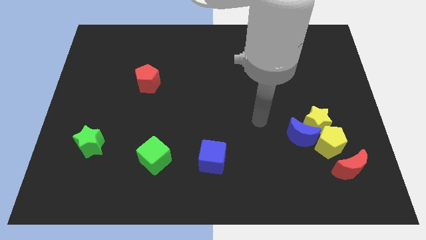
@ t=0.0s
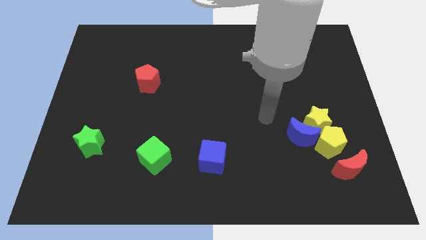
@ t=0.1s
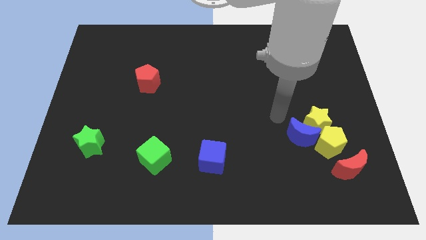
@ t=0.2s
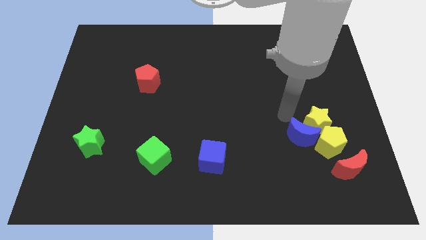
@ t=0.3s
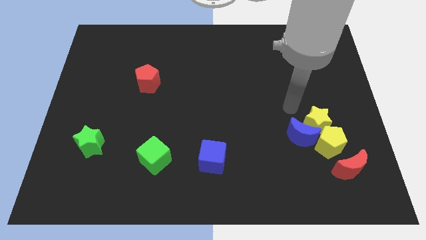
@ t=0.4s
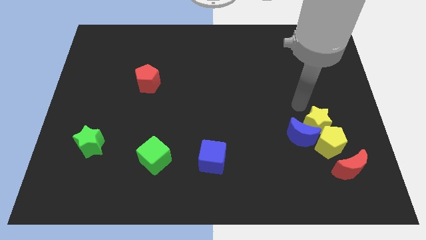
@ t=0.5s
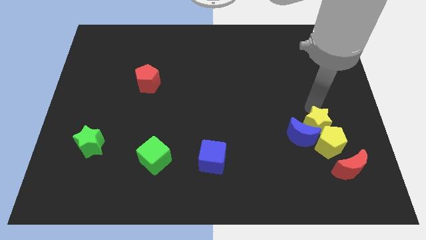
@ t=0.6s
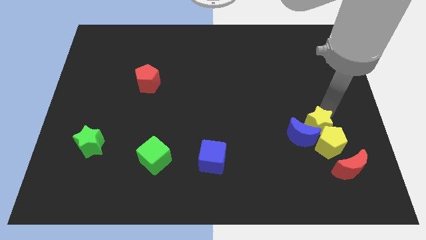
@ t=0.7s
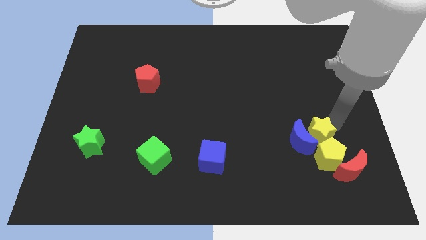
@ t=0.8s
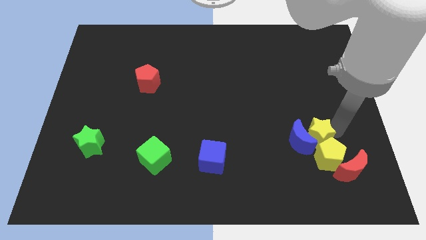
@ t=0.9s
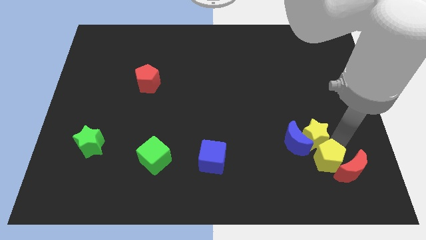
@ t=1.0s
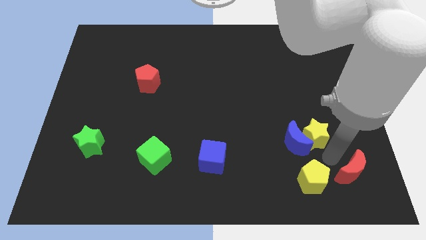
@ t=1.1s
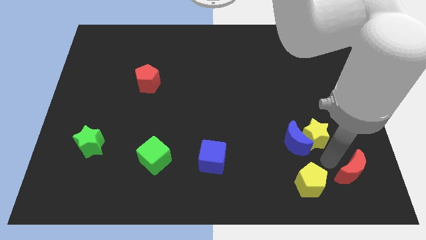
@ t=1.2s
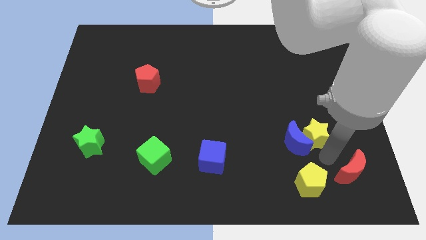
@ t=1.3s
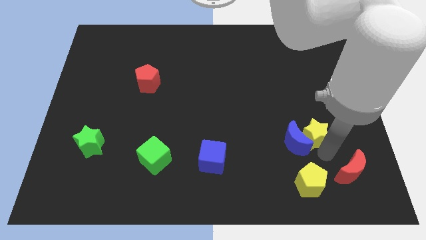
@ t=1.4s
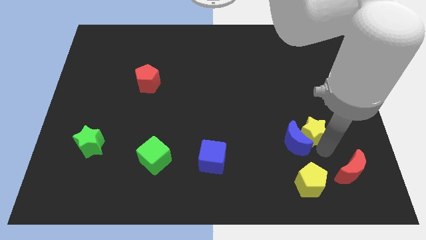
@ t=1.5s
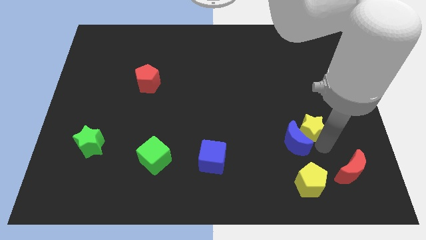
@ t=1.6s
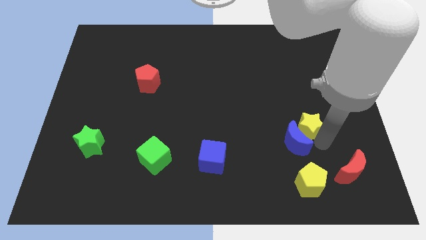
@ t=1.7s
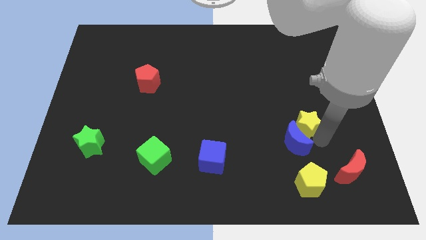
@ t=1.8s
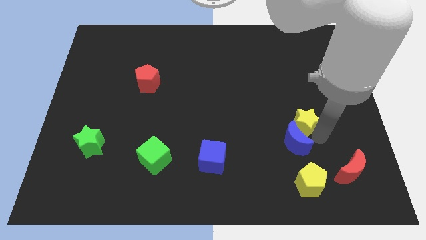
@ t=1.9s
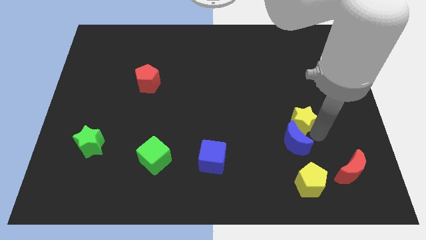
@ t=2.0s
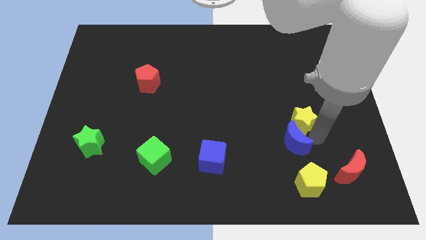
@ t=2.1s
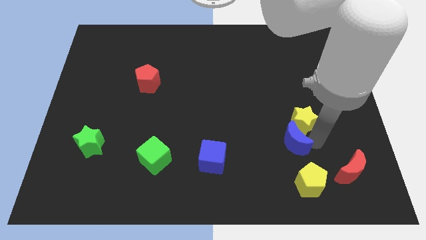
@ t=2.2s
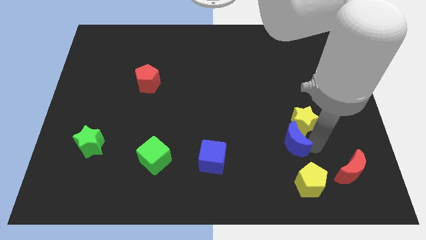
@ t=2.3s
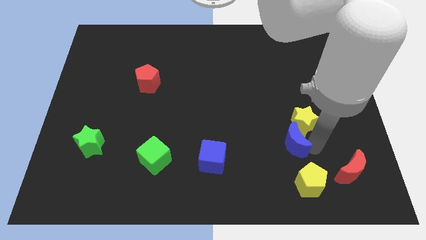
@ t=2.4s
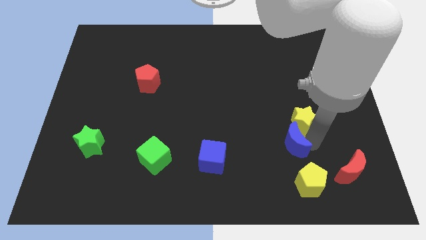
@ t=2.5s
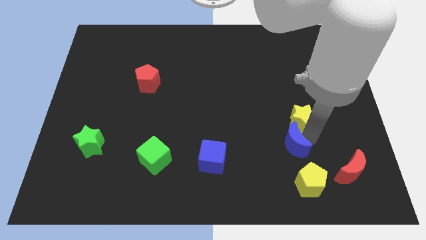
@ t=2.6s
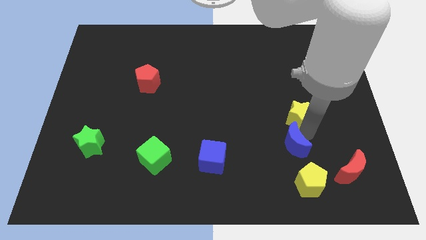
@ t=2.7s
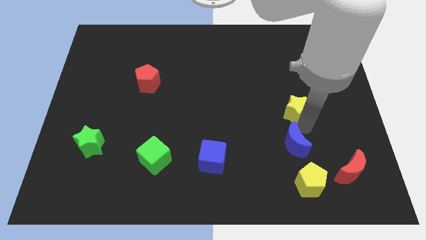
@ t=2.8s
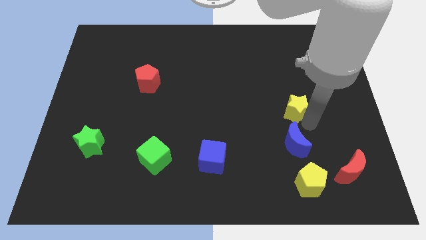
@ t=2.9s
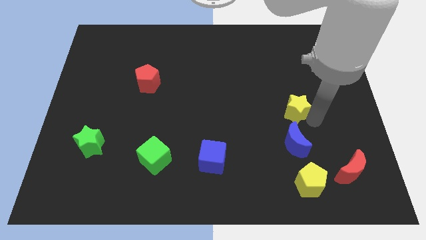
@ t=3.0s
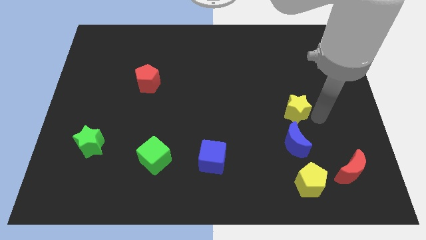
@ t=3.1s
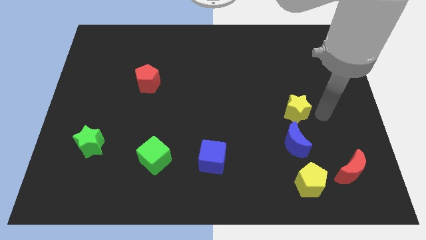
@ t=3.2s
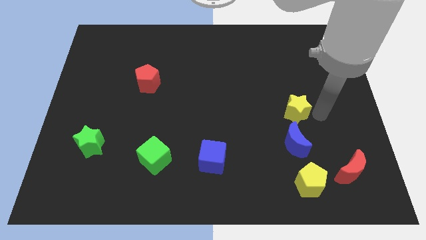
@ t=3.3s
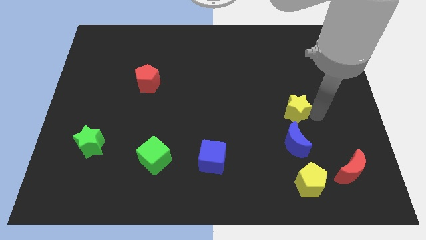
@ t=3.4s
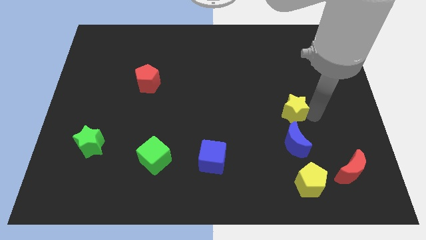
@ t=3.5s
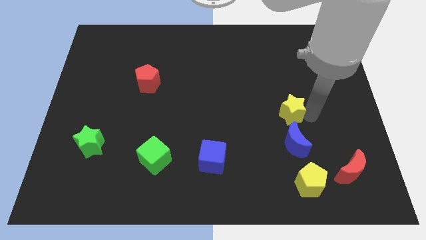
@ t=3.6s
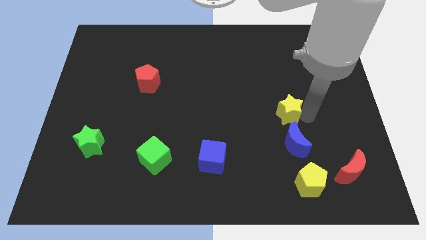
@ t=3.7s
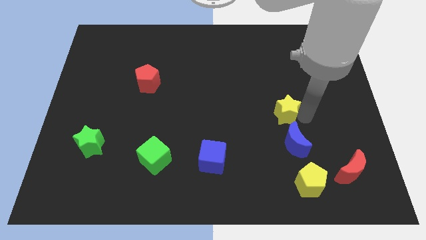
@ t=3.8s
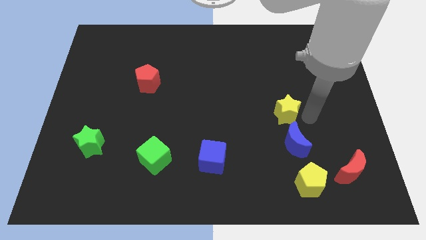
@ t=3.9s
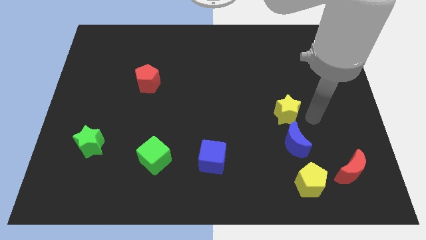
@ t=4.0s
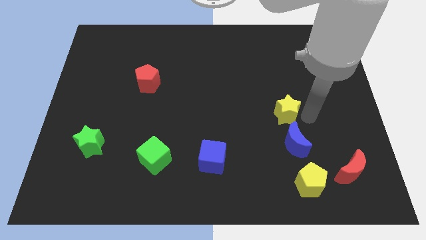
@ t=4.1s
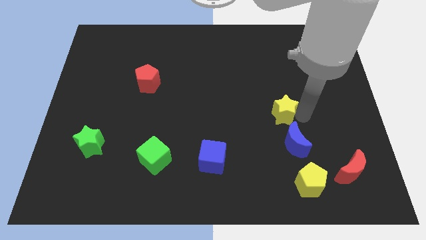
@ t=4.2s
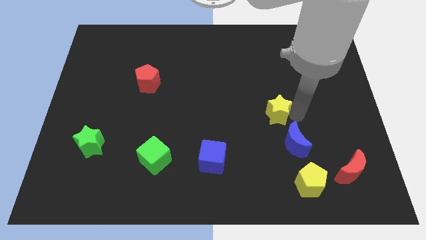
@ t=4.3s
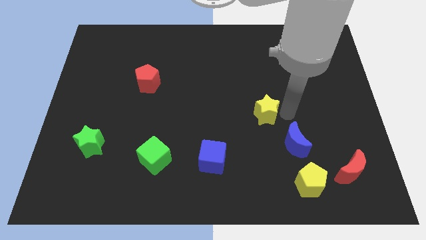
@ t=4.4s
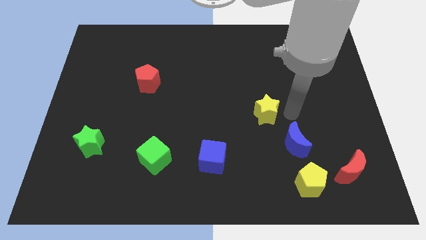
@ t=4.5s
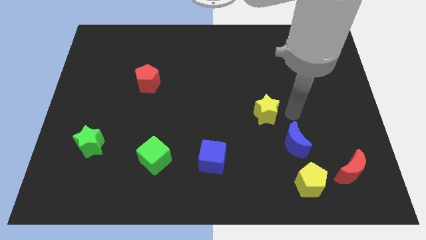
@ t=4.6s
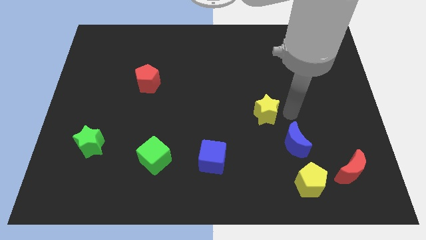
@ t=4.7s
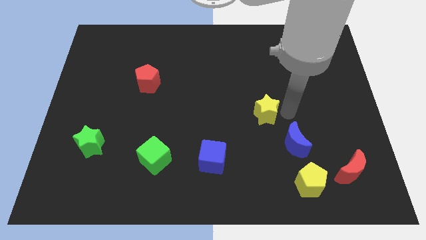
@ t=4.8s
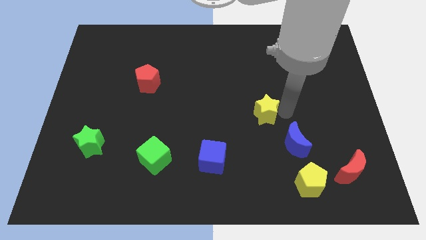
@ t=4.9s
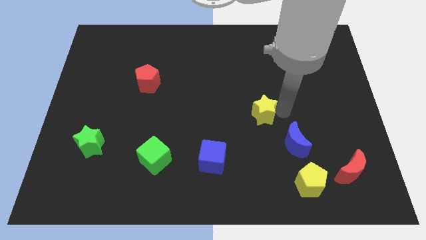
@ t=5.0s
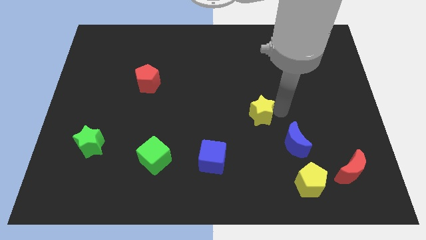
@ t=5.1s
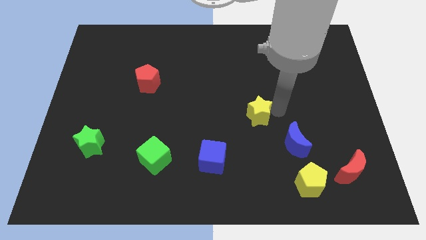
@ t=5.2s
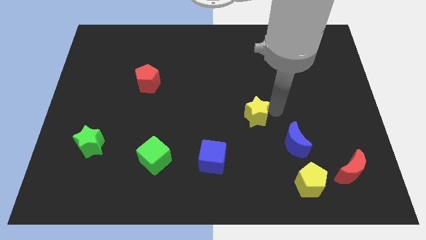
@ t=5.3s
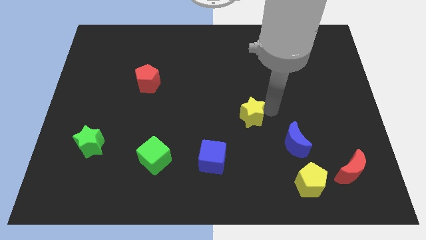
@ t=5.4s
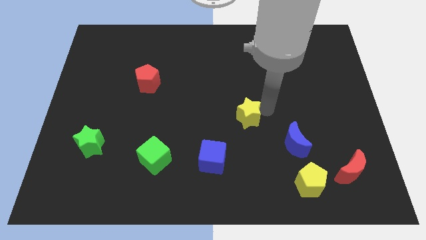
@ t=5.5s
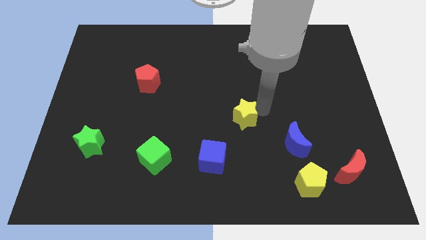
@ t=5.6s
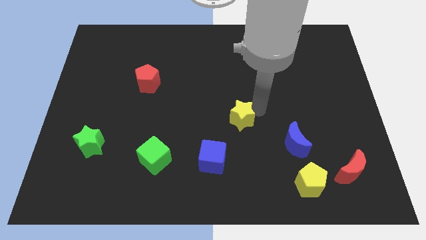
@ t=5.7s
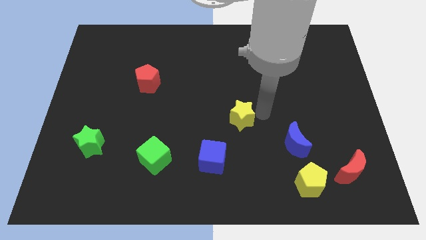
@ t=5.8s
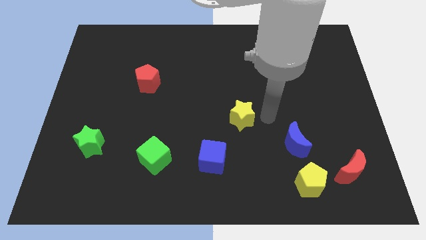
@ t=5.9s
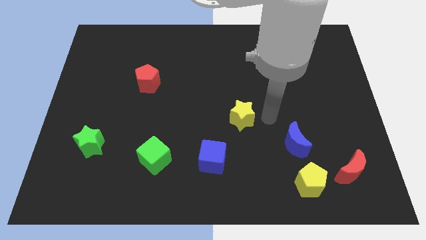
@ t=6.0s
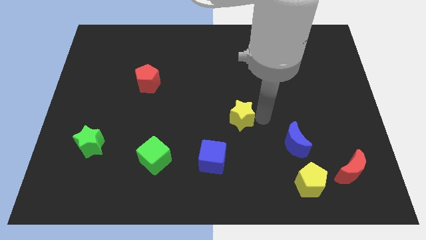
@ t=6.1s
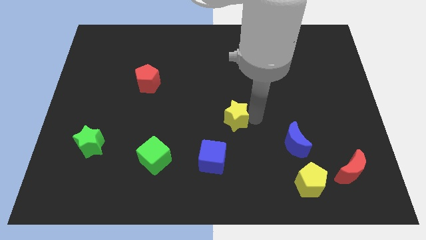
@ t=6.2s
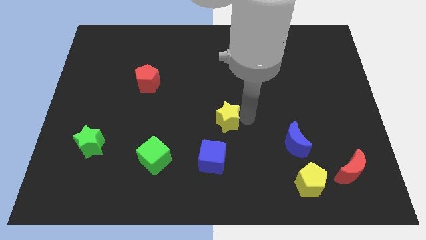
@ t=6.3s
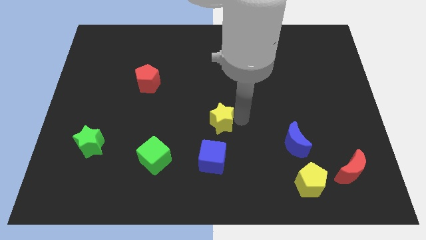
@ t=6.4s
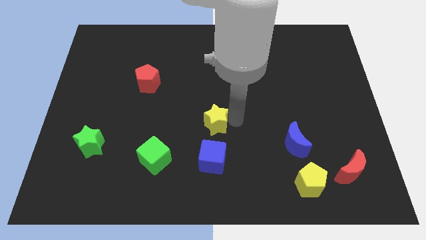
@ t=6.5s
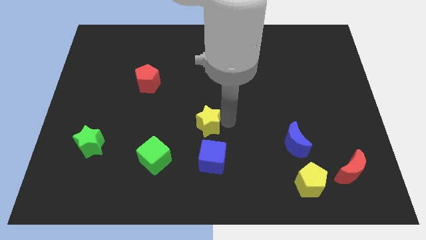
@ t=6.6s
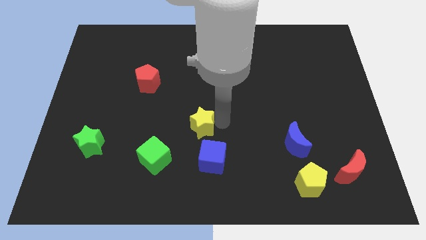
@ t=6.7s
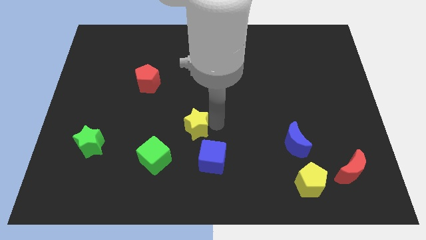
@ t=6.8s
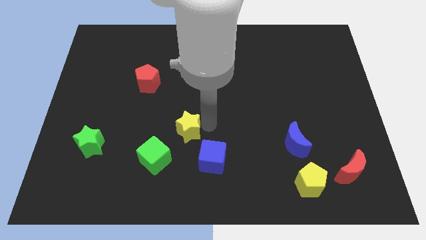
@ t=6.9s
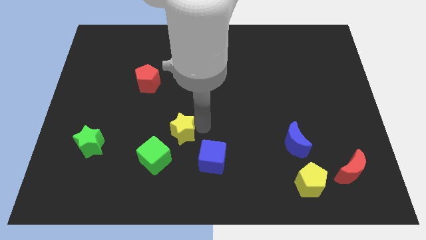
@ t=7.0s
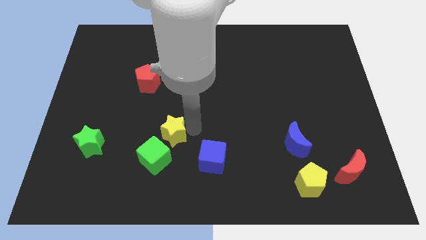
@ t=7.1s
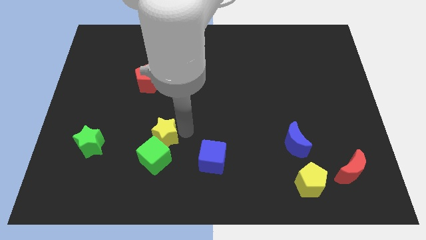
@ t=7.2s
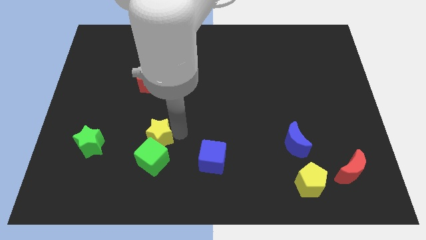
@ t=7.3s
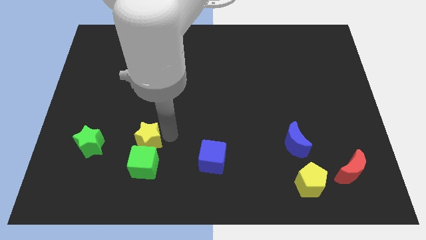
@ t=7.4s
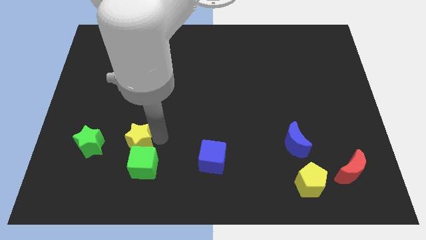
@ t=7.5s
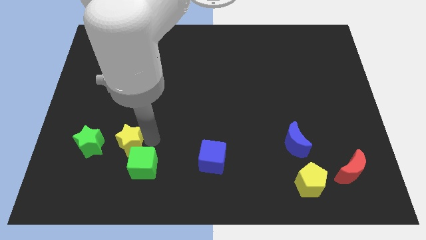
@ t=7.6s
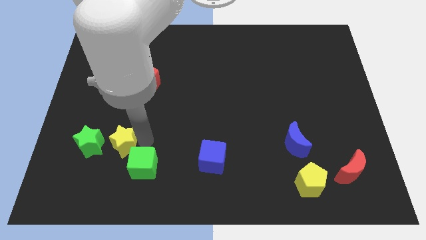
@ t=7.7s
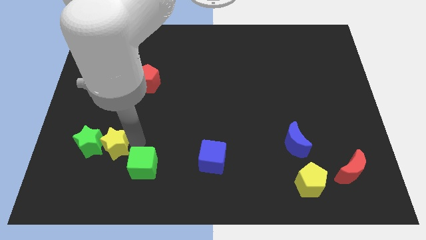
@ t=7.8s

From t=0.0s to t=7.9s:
slide the yellow star next to the green star
